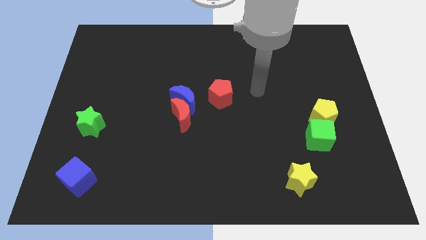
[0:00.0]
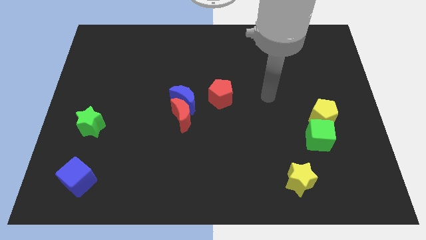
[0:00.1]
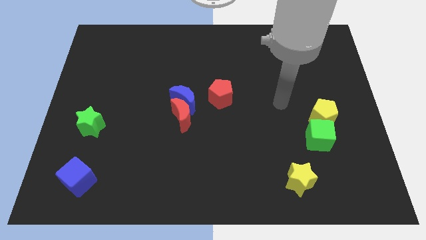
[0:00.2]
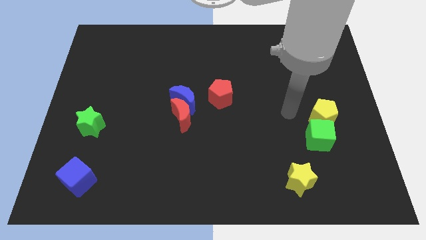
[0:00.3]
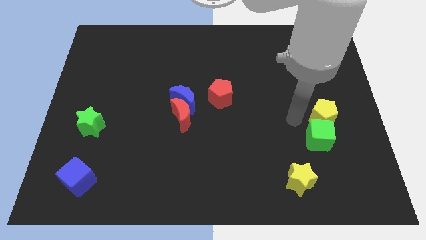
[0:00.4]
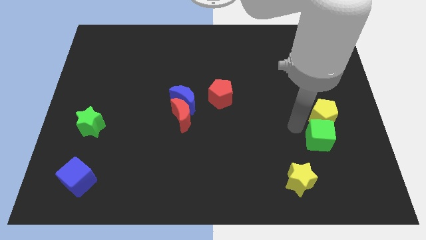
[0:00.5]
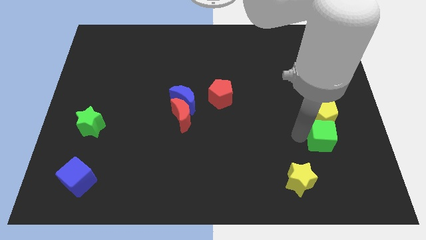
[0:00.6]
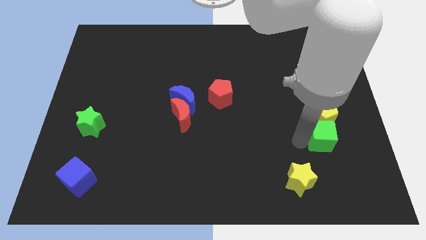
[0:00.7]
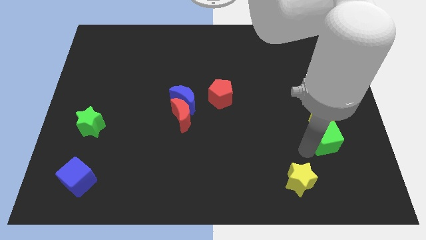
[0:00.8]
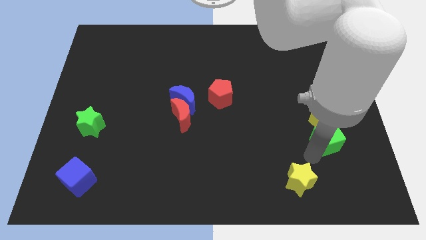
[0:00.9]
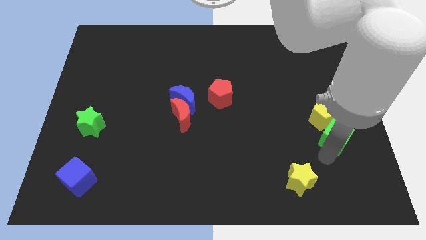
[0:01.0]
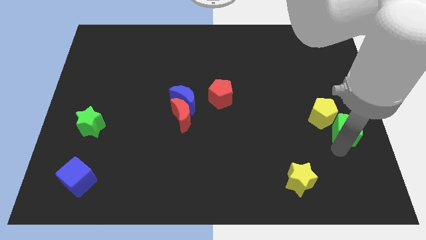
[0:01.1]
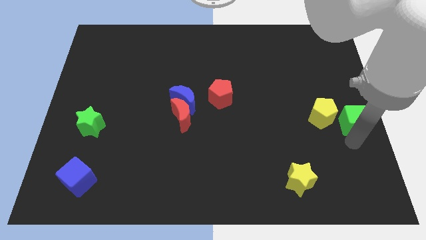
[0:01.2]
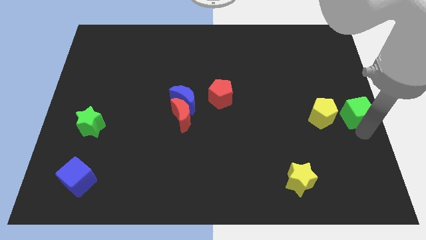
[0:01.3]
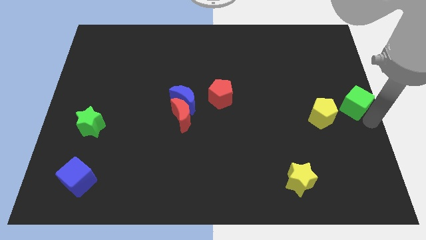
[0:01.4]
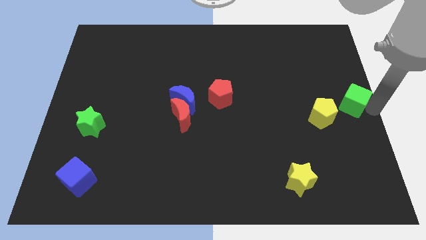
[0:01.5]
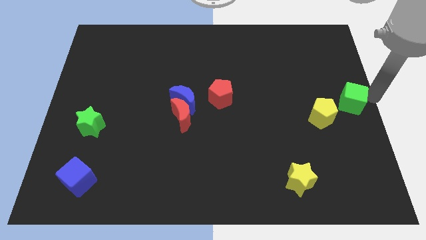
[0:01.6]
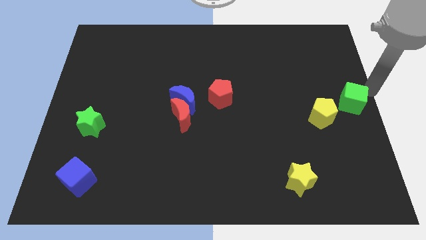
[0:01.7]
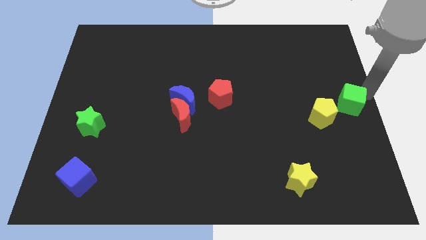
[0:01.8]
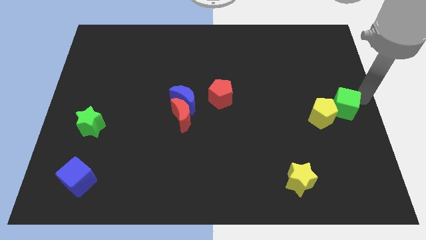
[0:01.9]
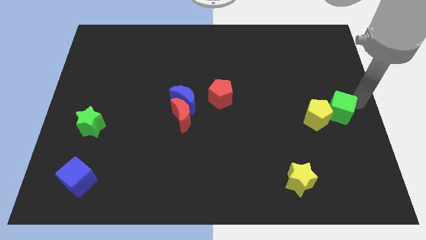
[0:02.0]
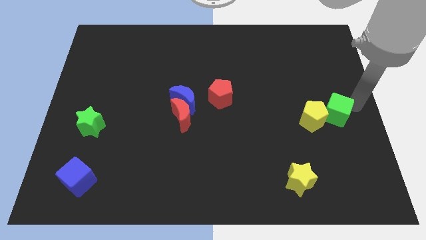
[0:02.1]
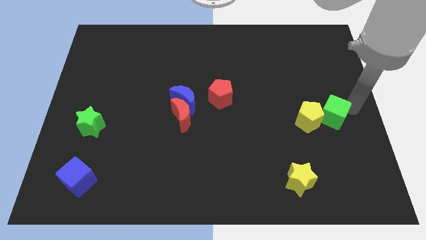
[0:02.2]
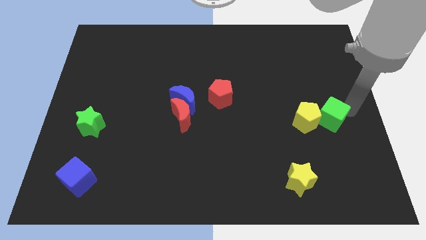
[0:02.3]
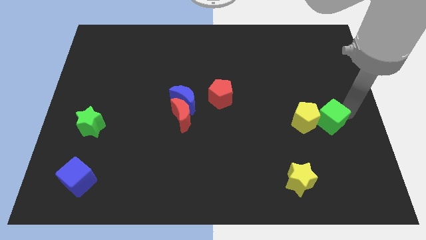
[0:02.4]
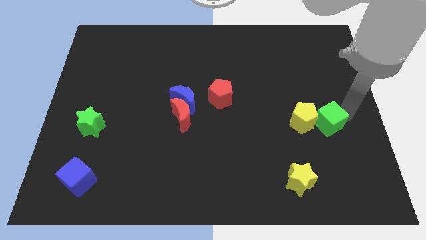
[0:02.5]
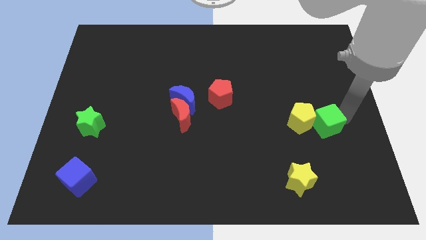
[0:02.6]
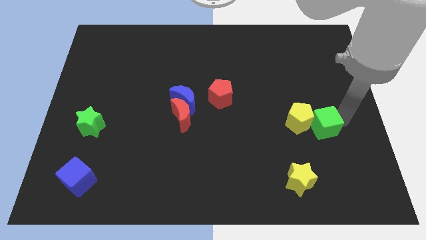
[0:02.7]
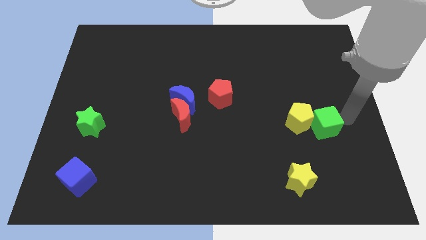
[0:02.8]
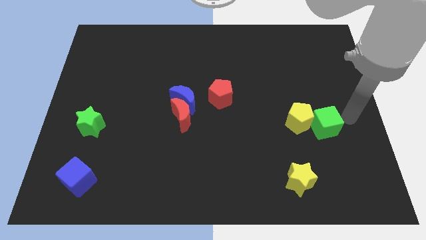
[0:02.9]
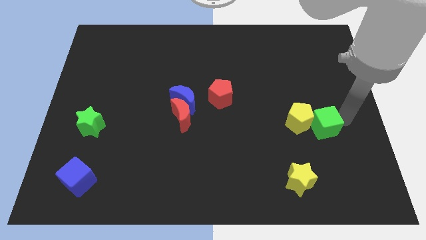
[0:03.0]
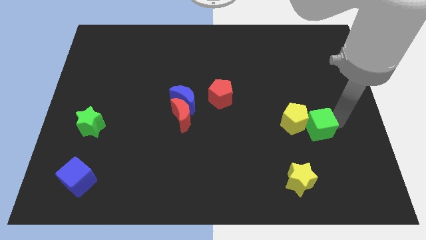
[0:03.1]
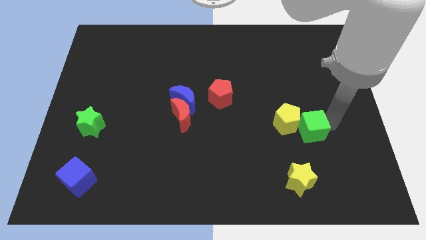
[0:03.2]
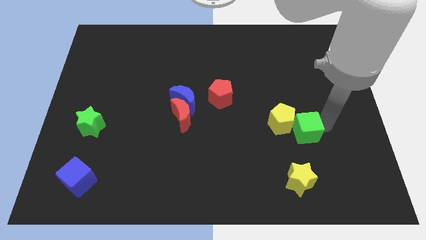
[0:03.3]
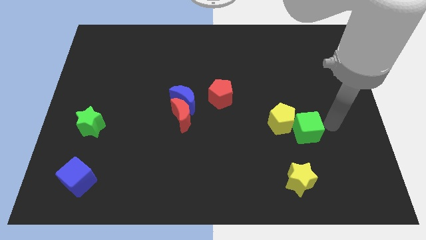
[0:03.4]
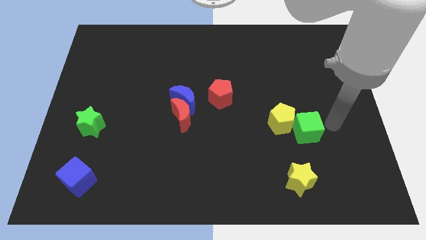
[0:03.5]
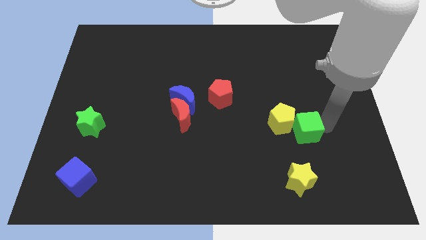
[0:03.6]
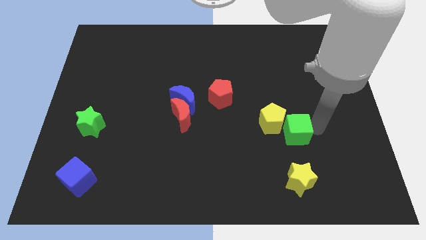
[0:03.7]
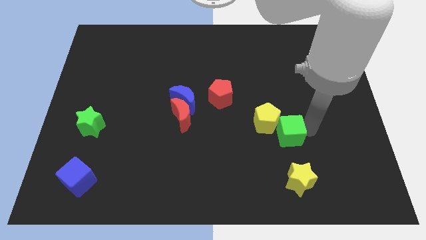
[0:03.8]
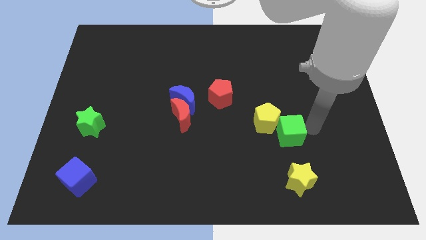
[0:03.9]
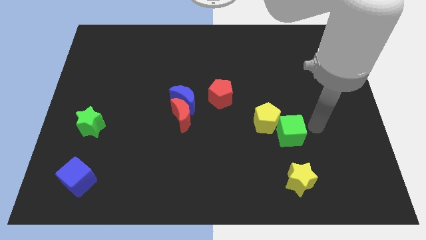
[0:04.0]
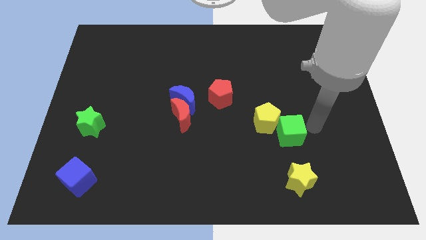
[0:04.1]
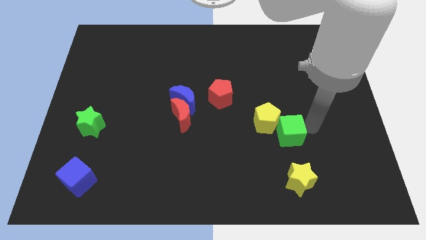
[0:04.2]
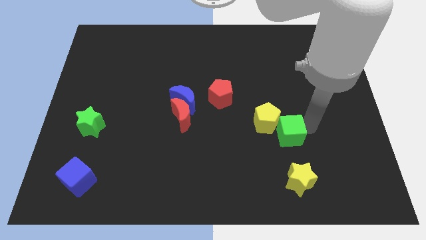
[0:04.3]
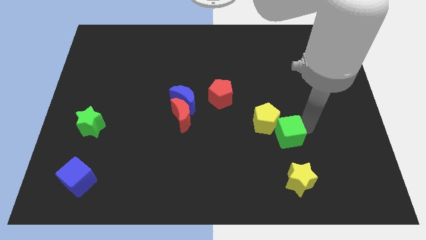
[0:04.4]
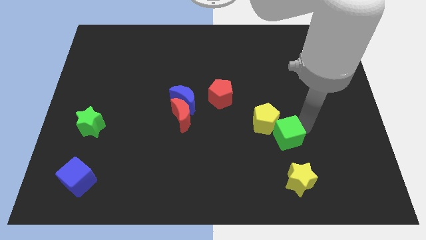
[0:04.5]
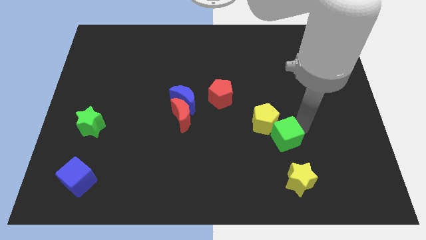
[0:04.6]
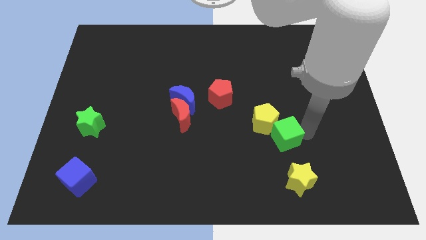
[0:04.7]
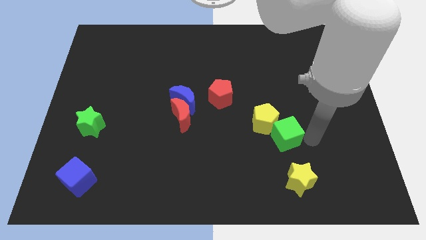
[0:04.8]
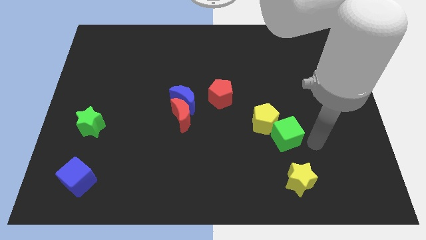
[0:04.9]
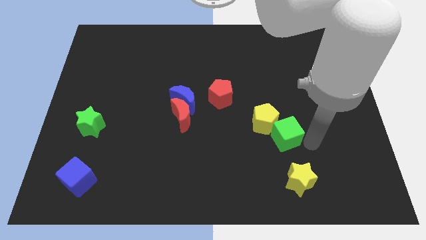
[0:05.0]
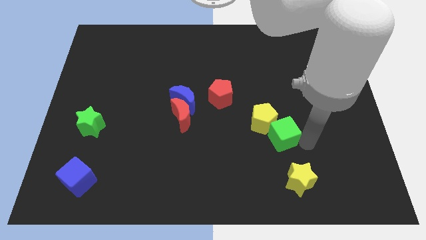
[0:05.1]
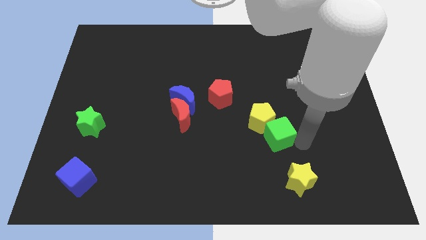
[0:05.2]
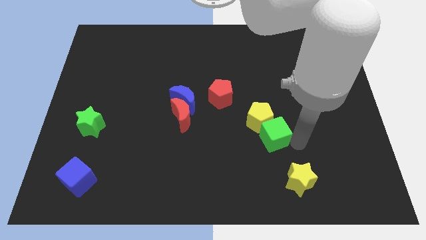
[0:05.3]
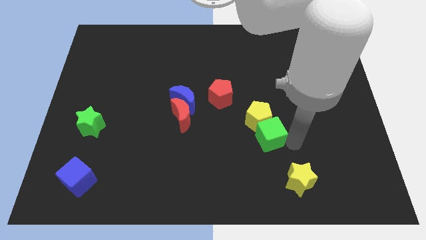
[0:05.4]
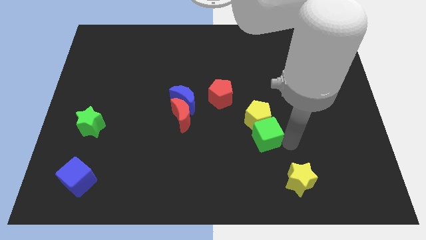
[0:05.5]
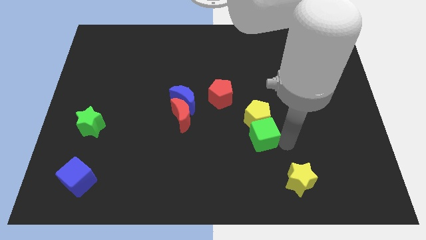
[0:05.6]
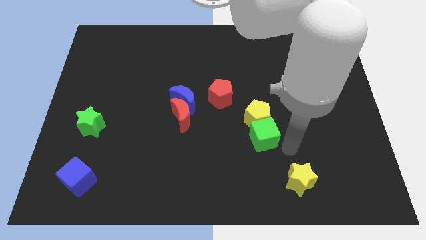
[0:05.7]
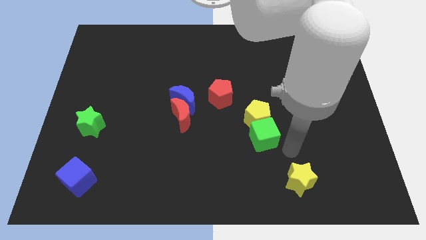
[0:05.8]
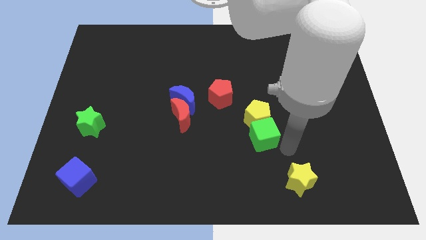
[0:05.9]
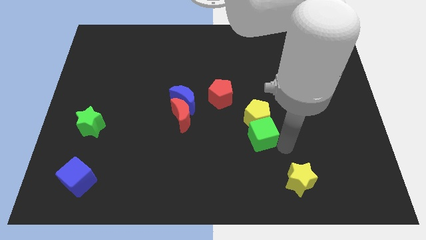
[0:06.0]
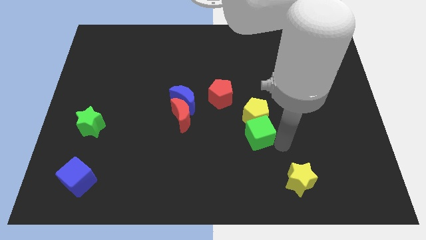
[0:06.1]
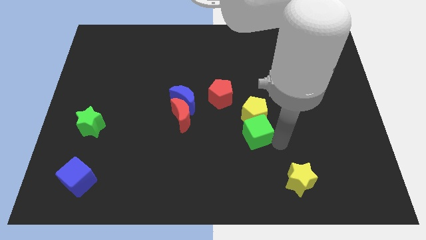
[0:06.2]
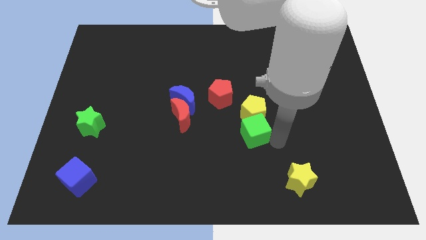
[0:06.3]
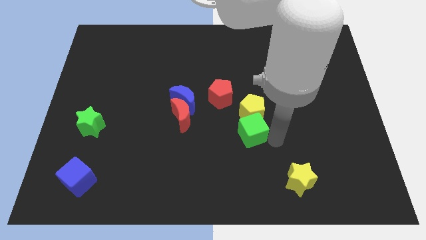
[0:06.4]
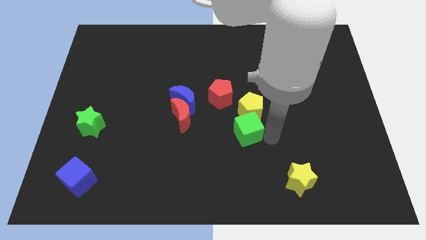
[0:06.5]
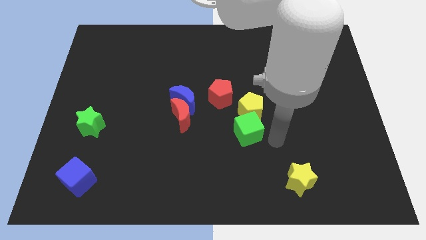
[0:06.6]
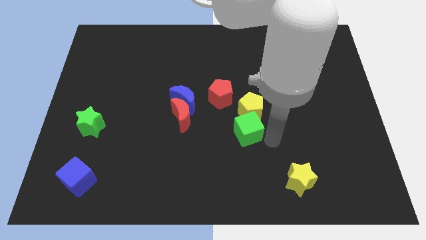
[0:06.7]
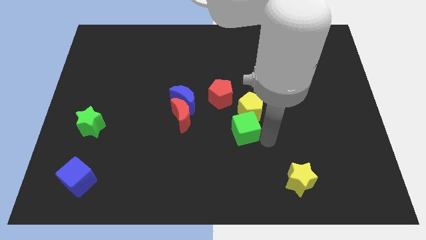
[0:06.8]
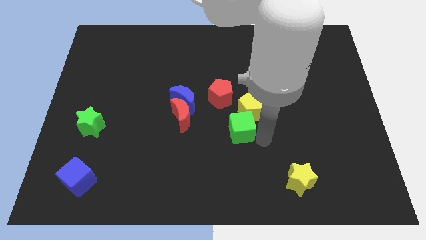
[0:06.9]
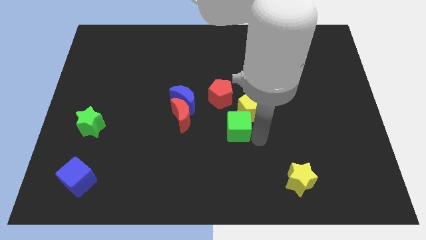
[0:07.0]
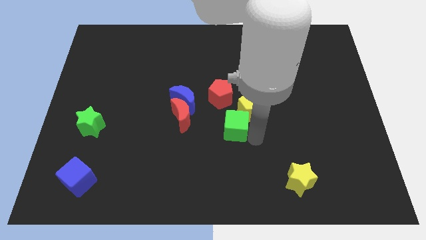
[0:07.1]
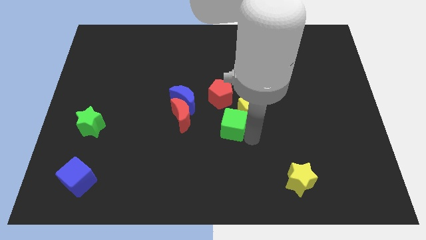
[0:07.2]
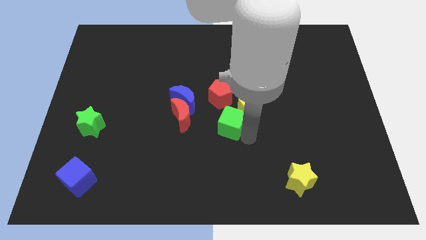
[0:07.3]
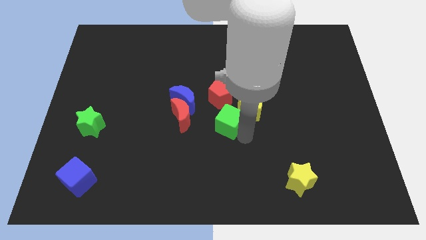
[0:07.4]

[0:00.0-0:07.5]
put the green cube diagonally down and to the right of the blue moon
